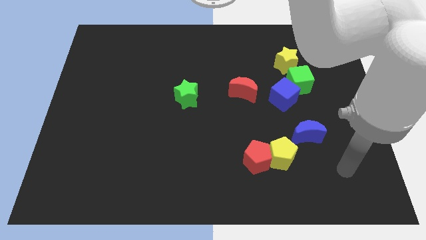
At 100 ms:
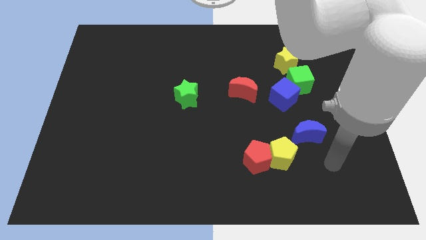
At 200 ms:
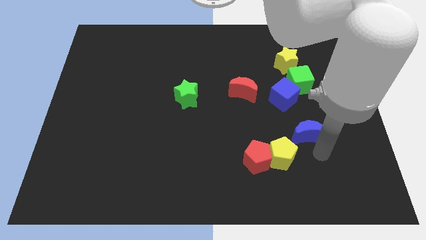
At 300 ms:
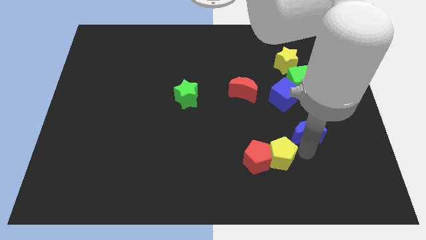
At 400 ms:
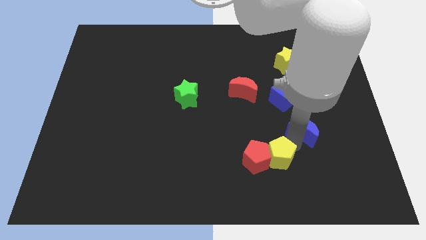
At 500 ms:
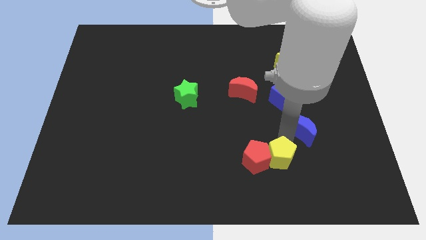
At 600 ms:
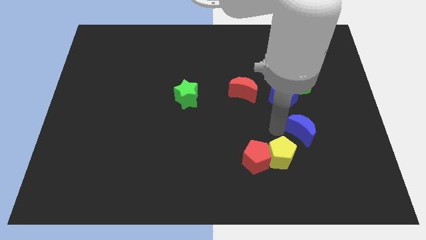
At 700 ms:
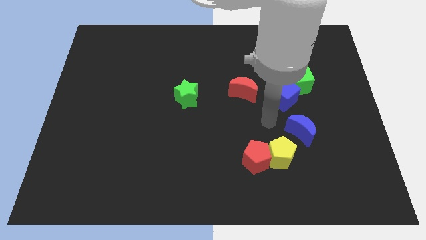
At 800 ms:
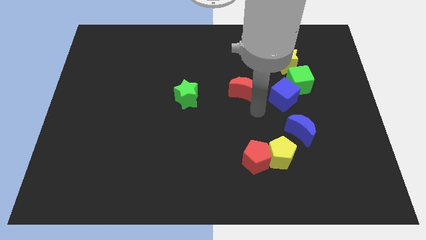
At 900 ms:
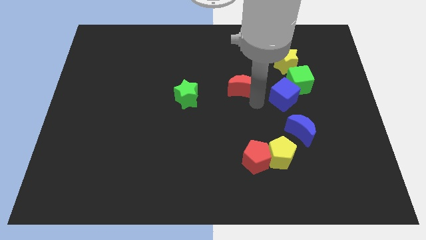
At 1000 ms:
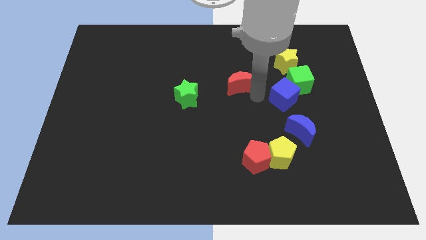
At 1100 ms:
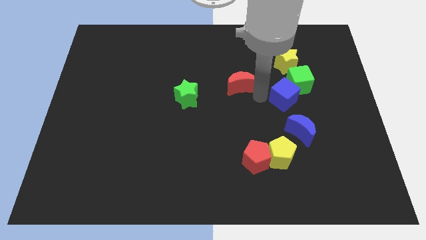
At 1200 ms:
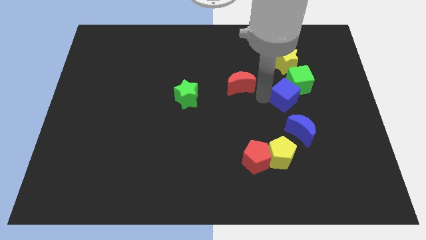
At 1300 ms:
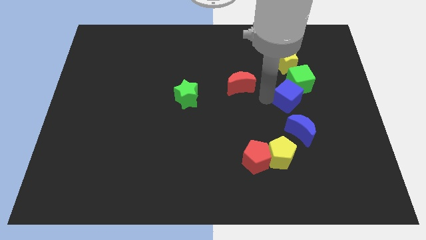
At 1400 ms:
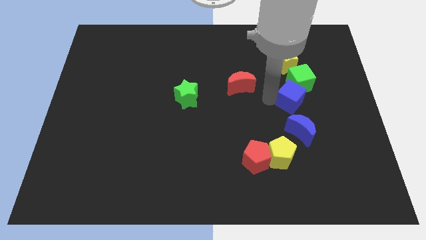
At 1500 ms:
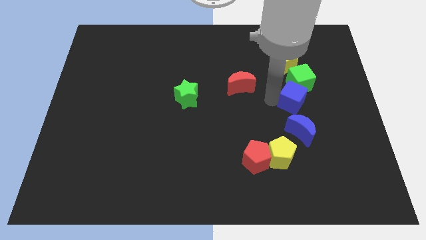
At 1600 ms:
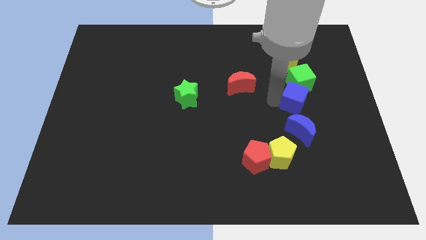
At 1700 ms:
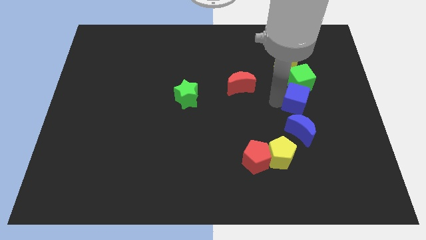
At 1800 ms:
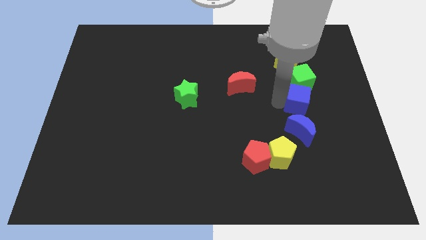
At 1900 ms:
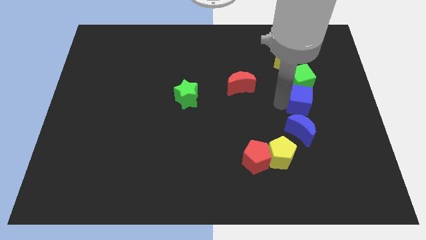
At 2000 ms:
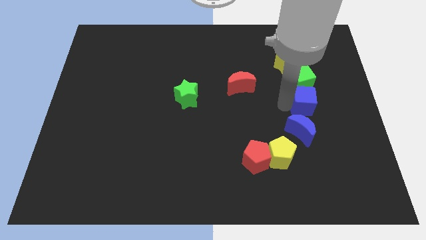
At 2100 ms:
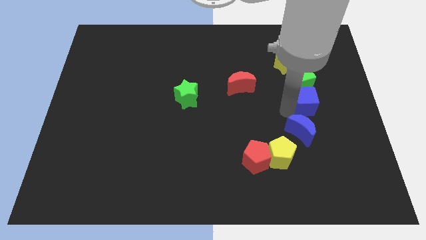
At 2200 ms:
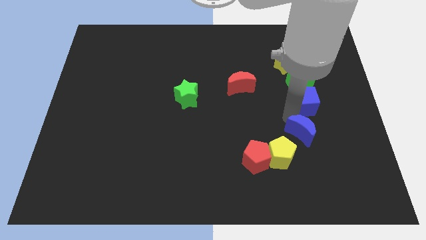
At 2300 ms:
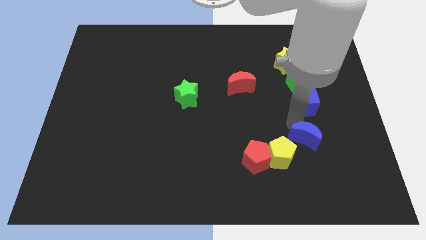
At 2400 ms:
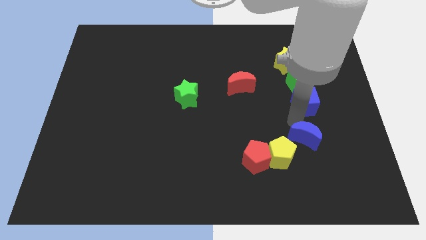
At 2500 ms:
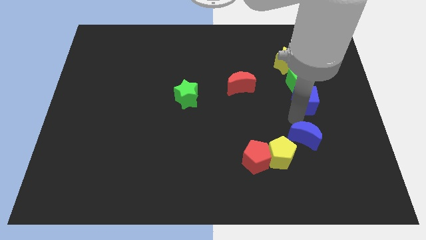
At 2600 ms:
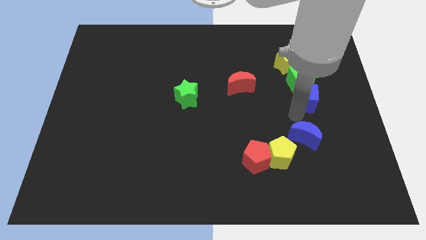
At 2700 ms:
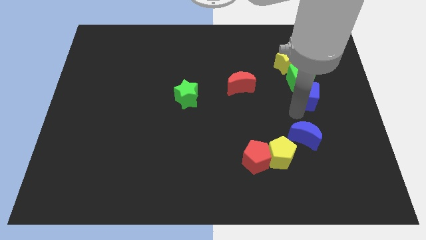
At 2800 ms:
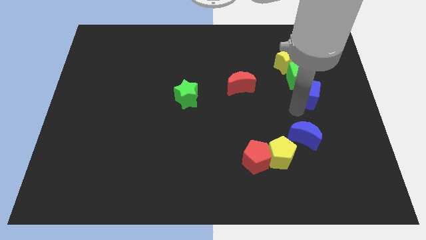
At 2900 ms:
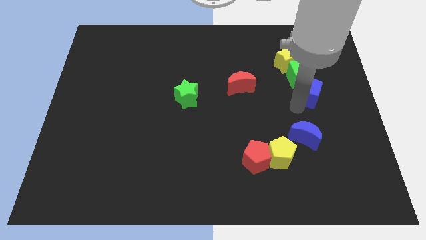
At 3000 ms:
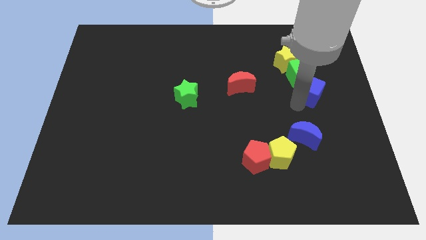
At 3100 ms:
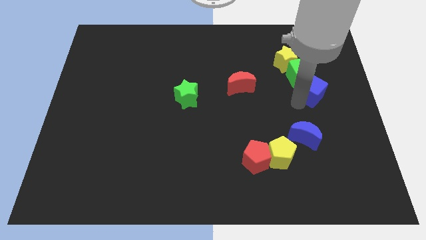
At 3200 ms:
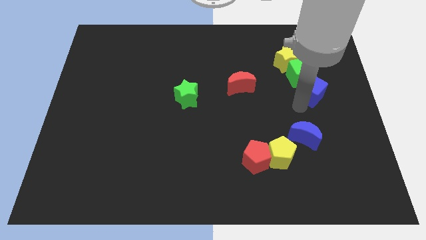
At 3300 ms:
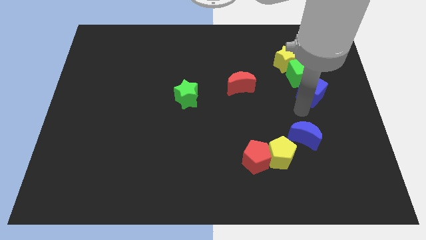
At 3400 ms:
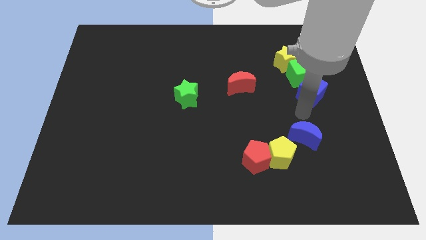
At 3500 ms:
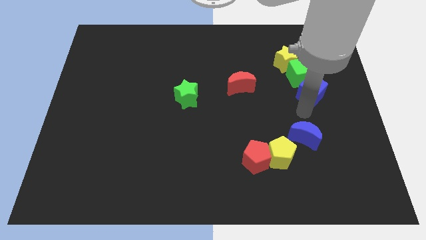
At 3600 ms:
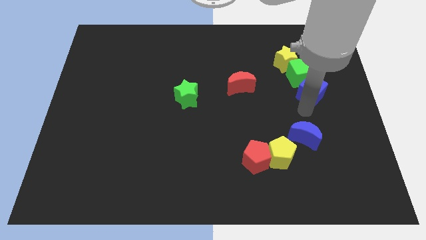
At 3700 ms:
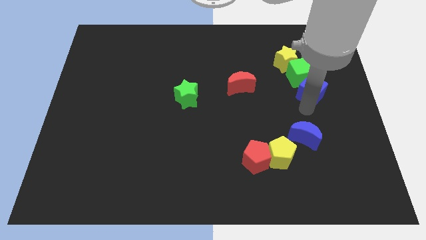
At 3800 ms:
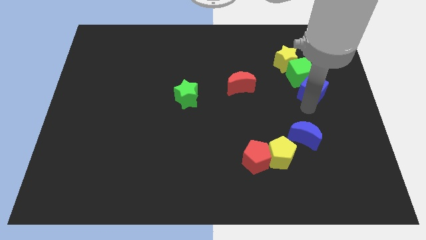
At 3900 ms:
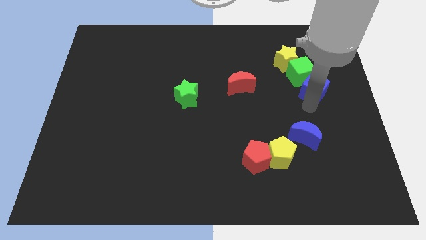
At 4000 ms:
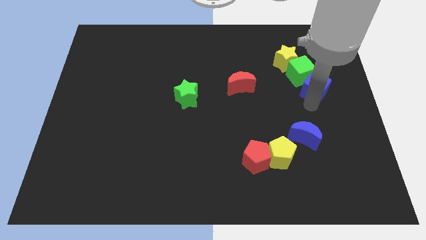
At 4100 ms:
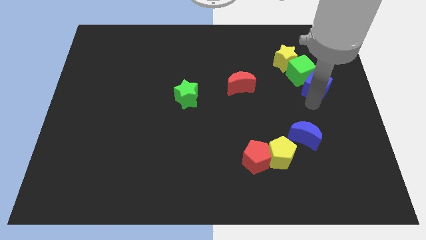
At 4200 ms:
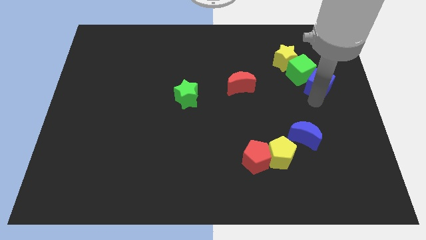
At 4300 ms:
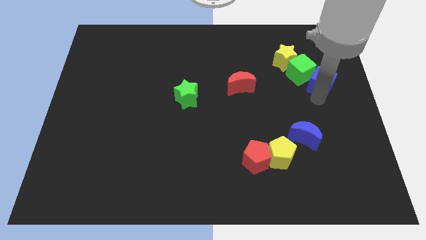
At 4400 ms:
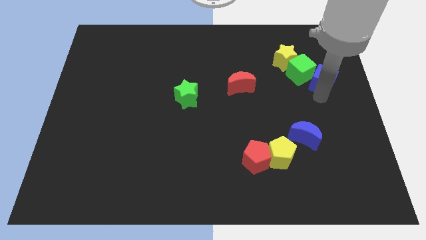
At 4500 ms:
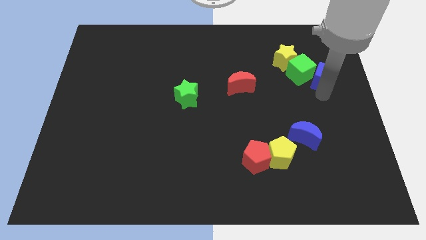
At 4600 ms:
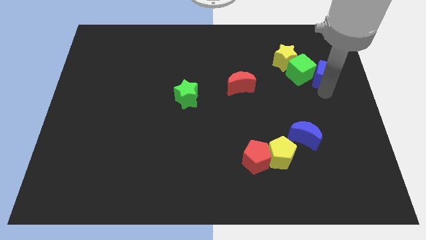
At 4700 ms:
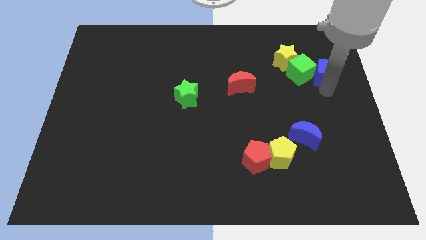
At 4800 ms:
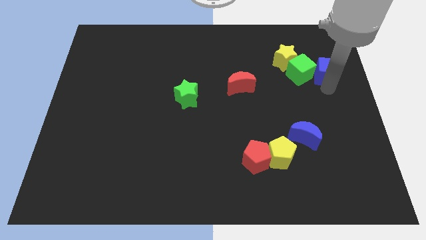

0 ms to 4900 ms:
slide the blue cube to the top right side of the green cube

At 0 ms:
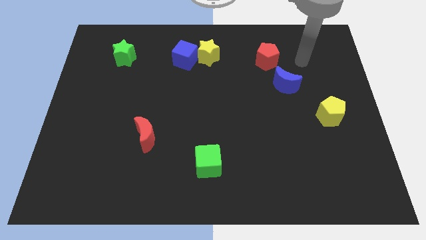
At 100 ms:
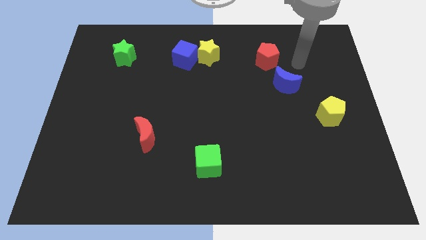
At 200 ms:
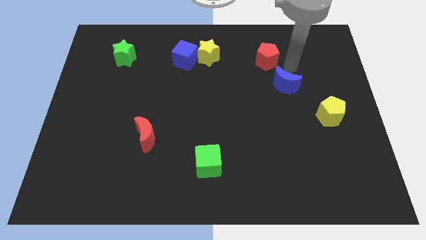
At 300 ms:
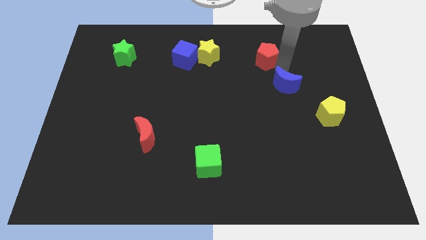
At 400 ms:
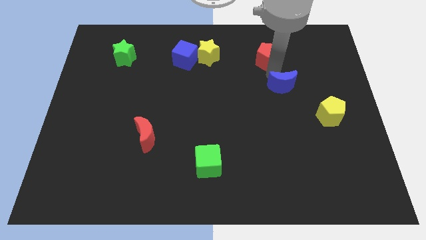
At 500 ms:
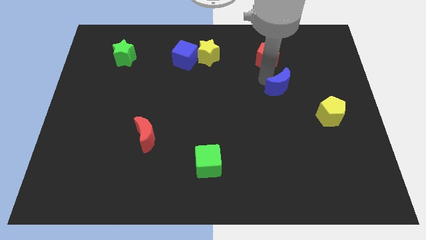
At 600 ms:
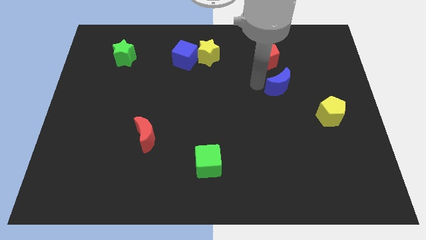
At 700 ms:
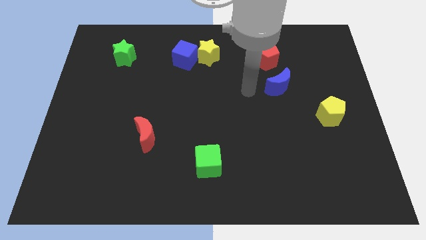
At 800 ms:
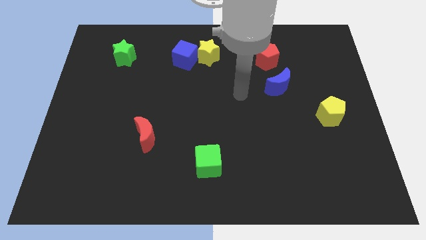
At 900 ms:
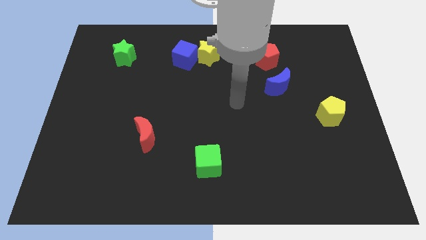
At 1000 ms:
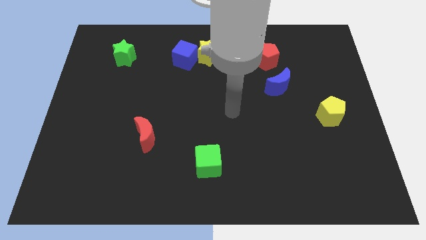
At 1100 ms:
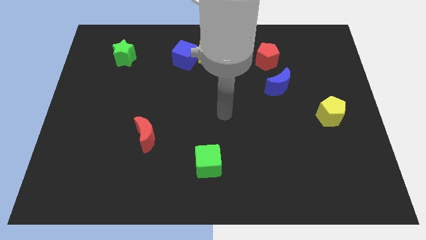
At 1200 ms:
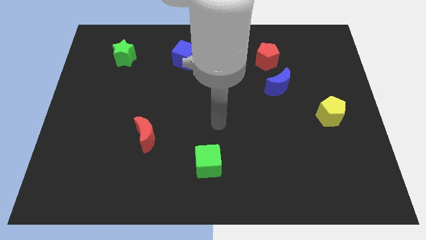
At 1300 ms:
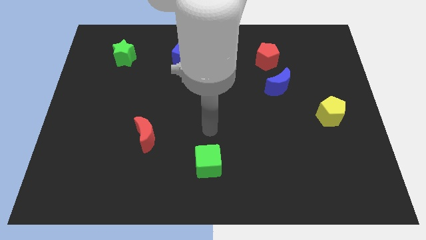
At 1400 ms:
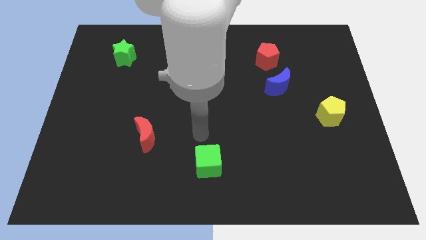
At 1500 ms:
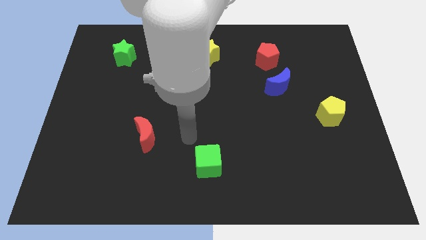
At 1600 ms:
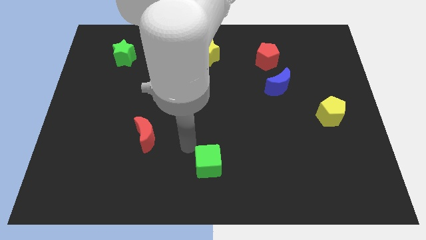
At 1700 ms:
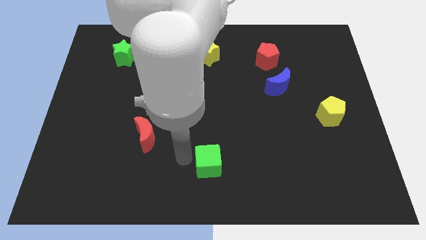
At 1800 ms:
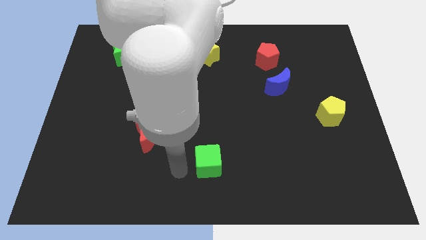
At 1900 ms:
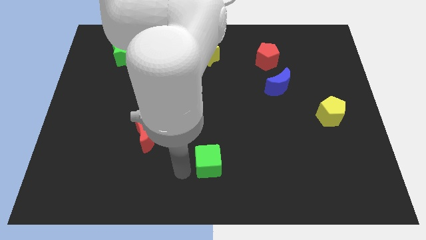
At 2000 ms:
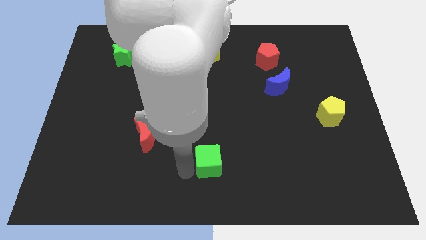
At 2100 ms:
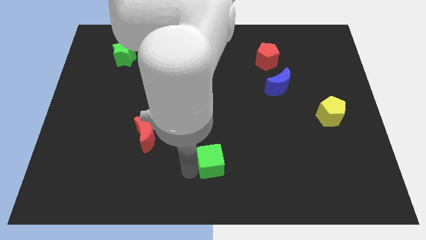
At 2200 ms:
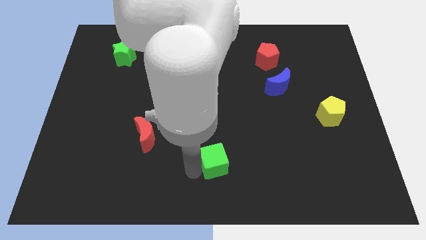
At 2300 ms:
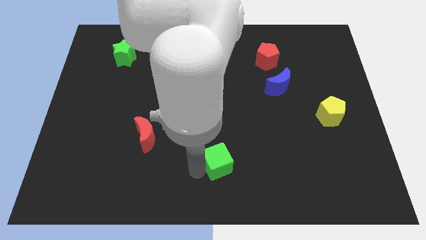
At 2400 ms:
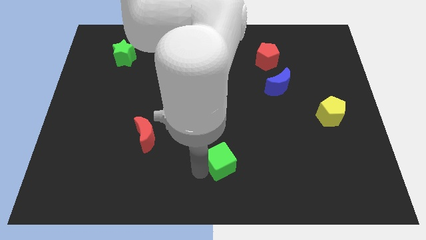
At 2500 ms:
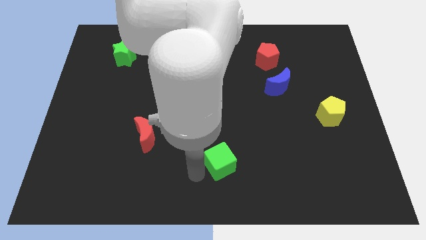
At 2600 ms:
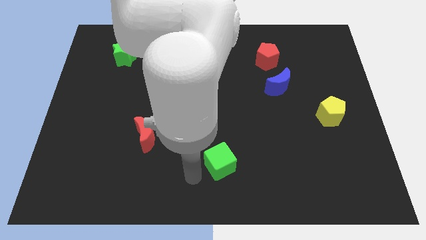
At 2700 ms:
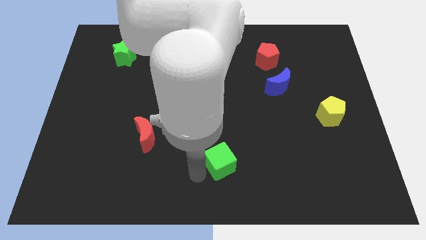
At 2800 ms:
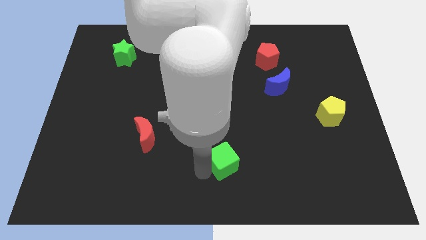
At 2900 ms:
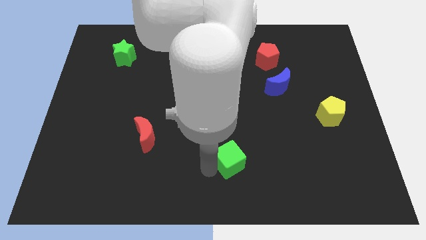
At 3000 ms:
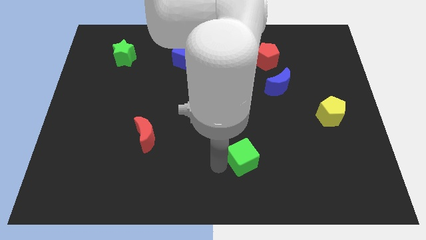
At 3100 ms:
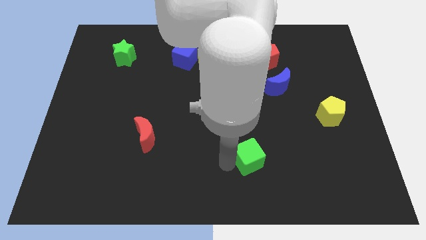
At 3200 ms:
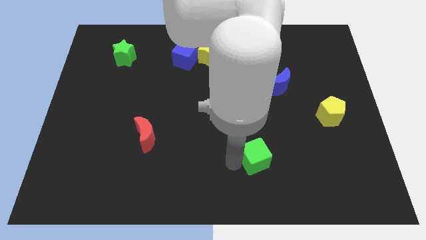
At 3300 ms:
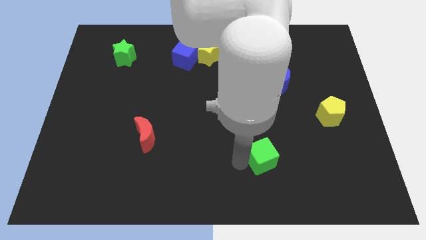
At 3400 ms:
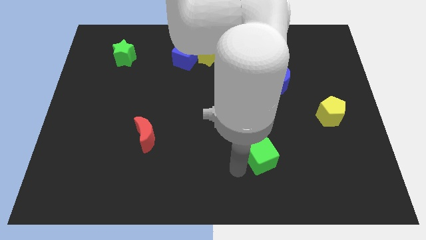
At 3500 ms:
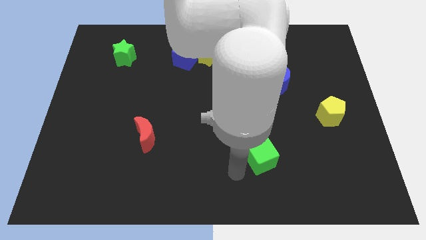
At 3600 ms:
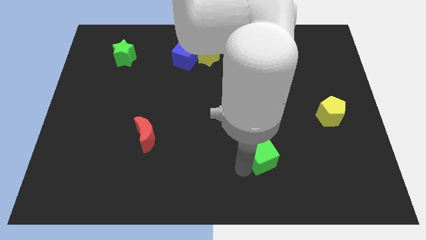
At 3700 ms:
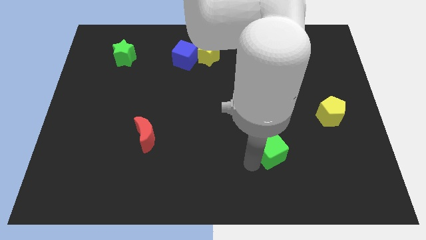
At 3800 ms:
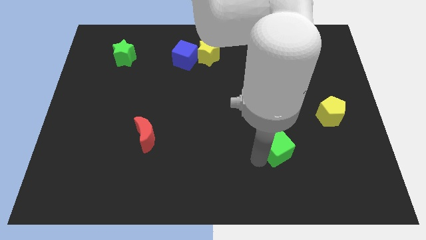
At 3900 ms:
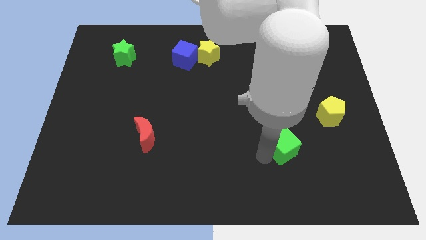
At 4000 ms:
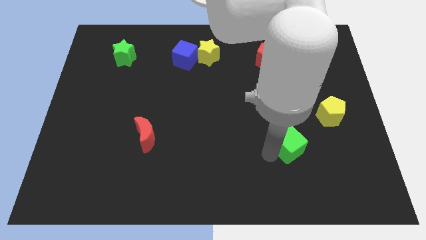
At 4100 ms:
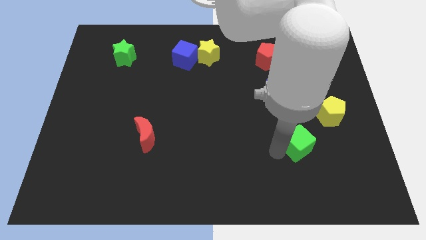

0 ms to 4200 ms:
put the green cube to the bottom left side of the yellow pentagon
